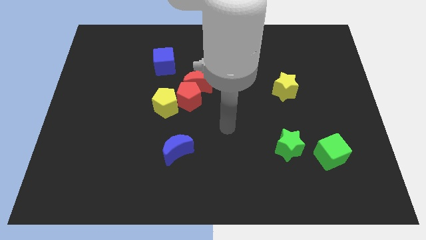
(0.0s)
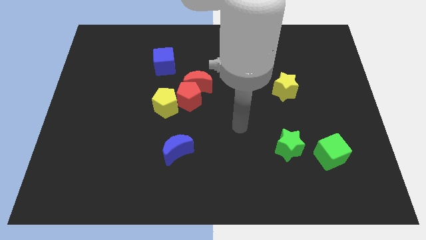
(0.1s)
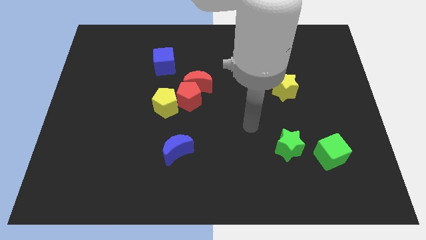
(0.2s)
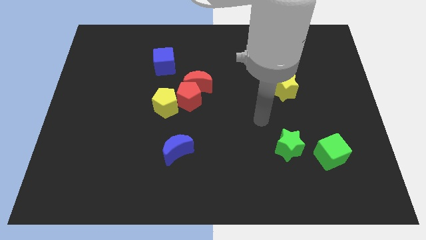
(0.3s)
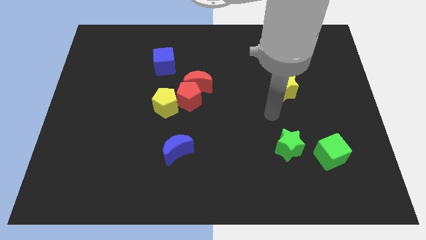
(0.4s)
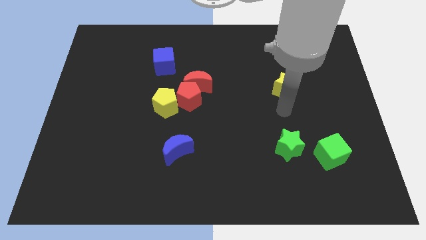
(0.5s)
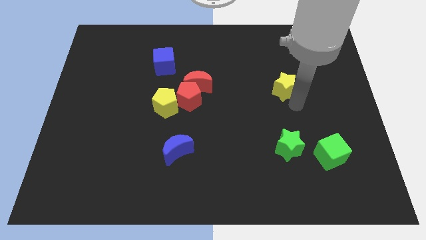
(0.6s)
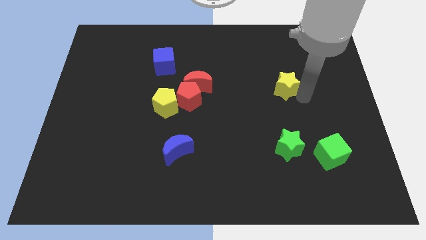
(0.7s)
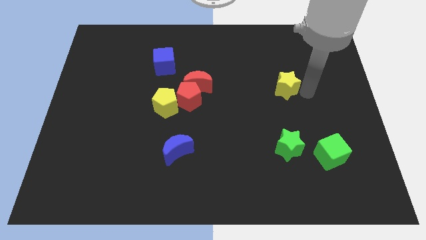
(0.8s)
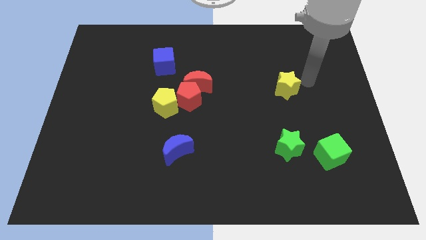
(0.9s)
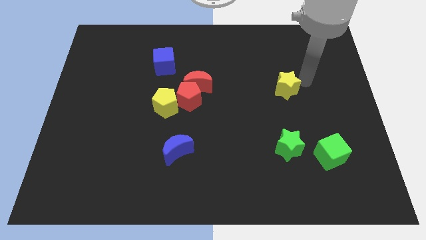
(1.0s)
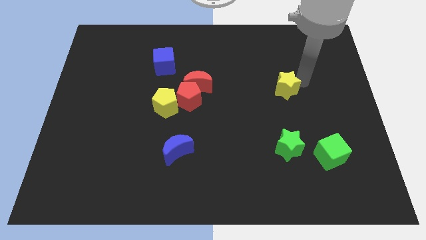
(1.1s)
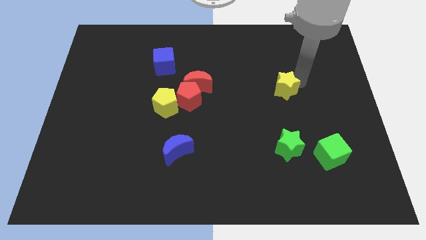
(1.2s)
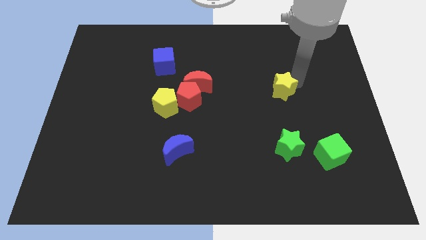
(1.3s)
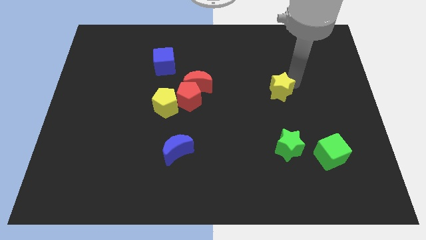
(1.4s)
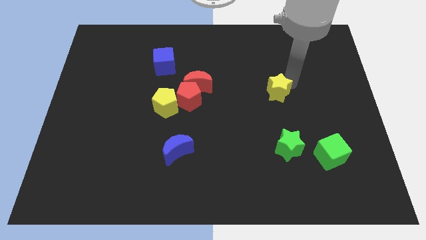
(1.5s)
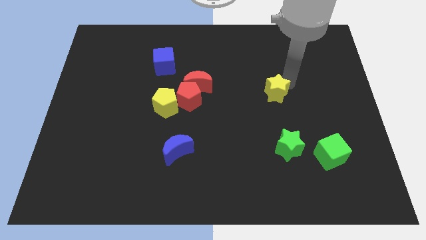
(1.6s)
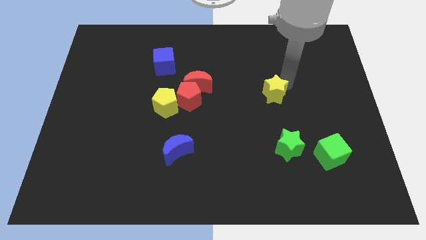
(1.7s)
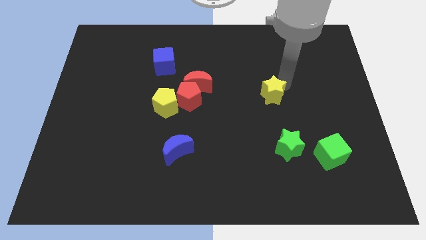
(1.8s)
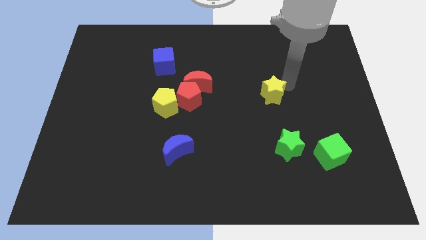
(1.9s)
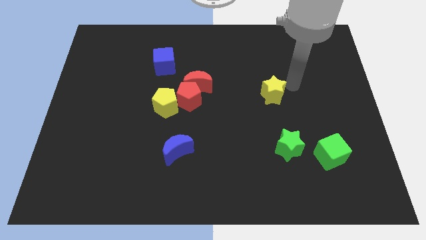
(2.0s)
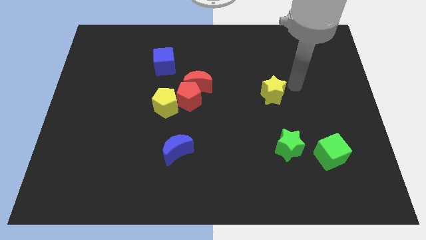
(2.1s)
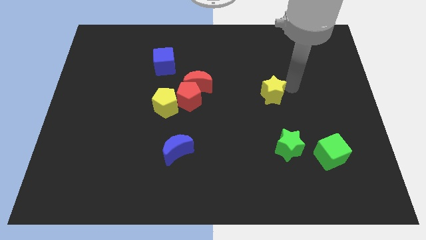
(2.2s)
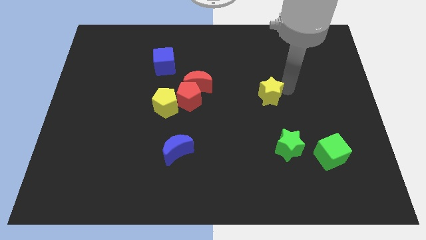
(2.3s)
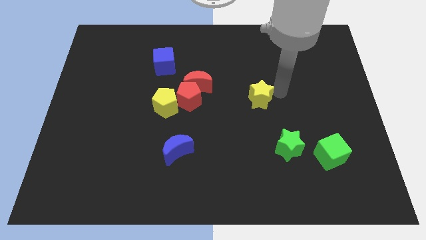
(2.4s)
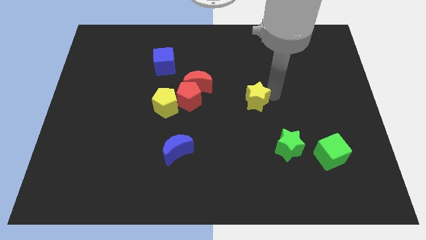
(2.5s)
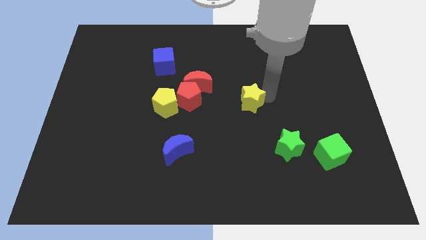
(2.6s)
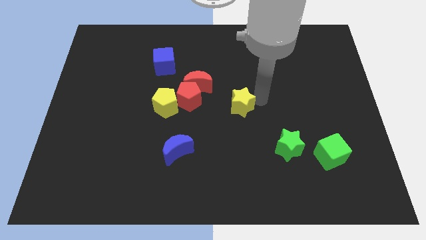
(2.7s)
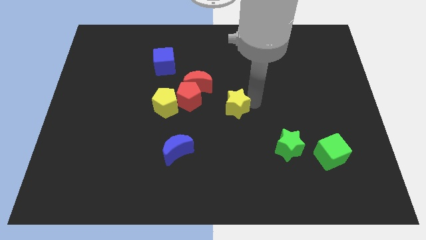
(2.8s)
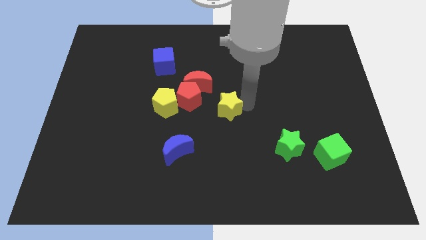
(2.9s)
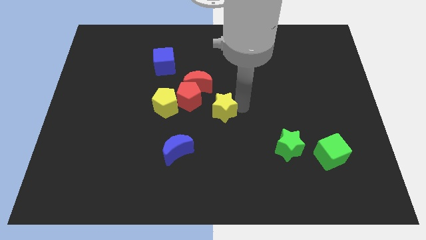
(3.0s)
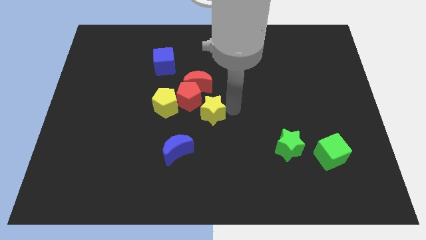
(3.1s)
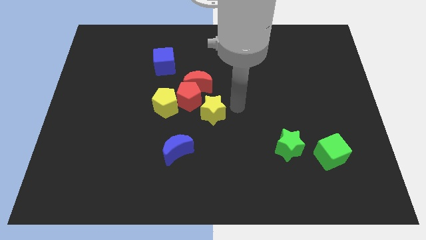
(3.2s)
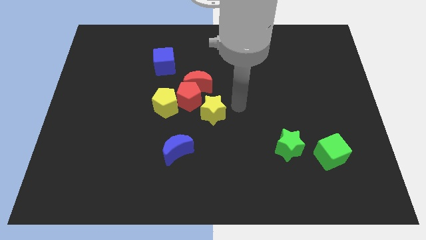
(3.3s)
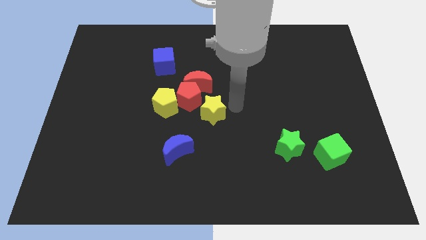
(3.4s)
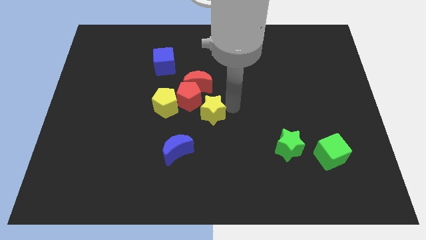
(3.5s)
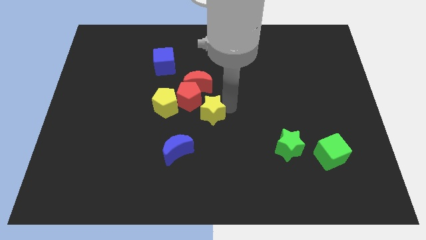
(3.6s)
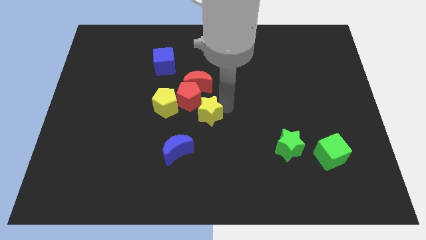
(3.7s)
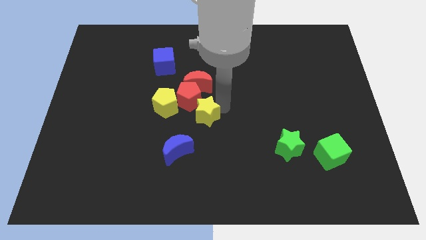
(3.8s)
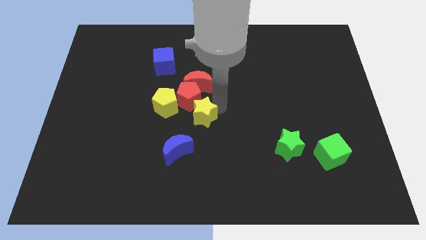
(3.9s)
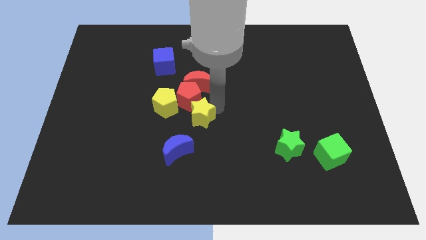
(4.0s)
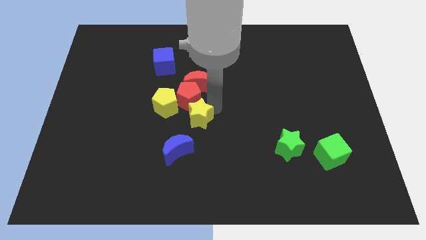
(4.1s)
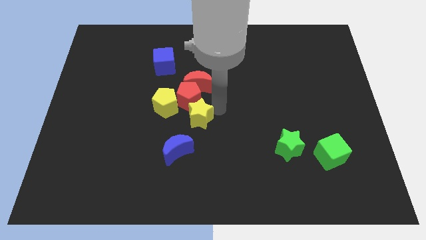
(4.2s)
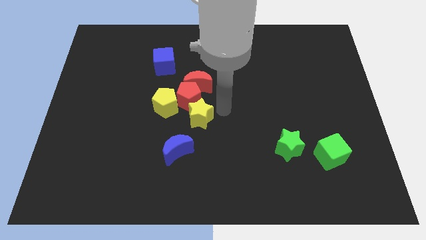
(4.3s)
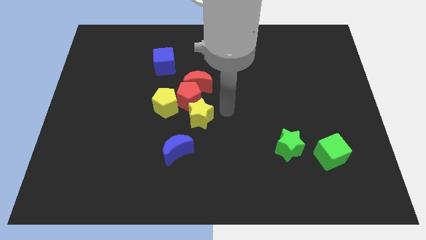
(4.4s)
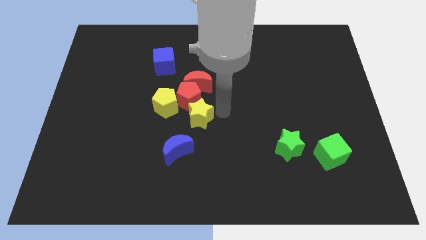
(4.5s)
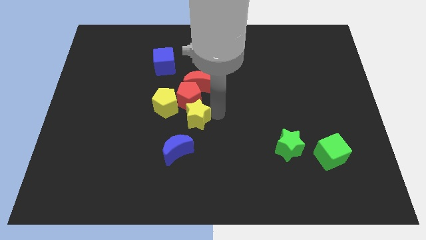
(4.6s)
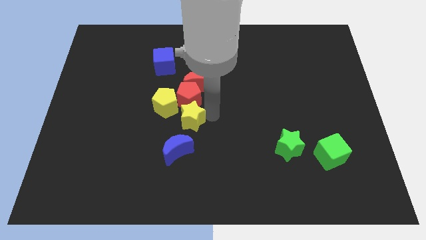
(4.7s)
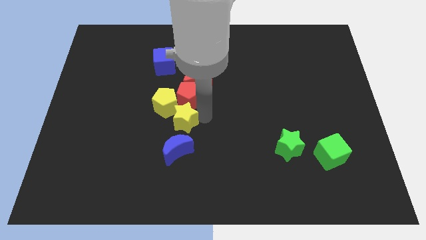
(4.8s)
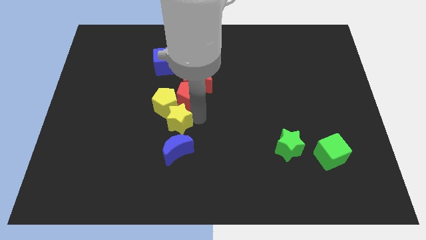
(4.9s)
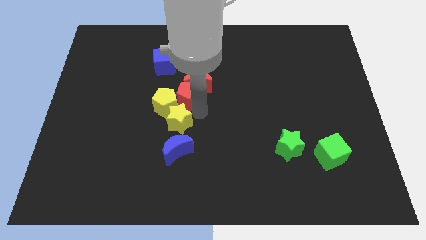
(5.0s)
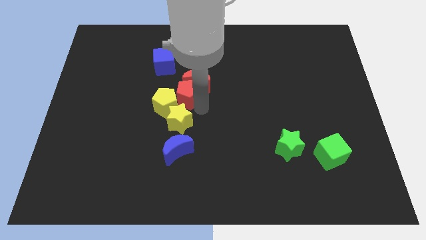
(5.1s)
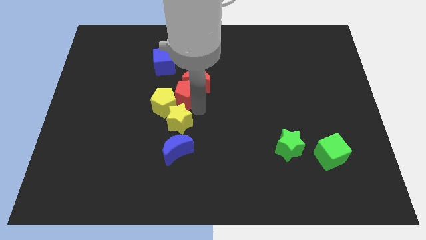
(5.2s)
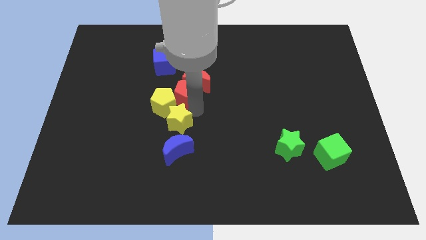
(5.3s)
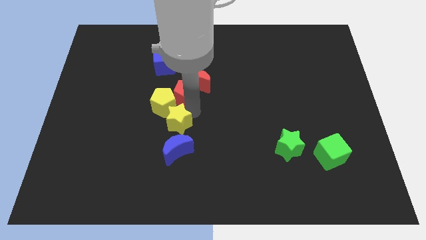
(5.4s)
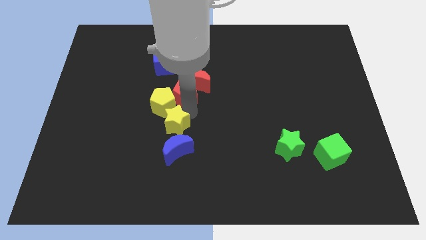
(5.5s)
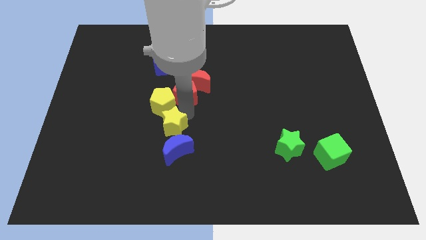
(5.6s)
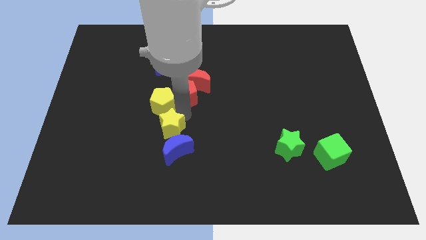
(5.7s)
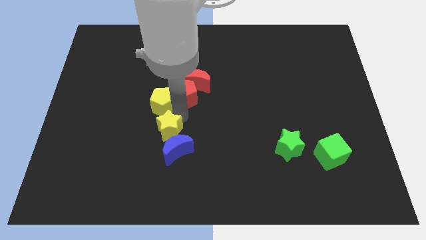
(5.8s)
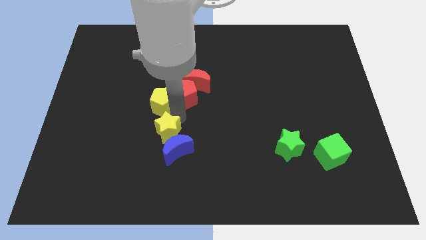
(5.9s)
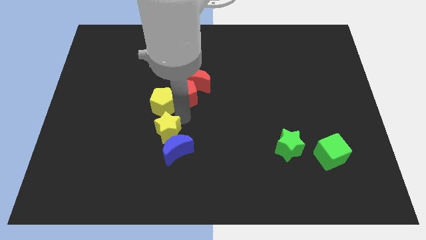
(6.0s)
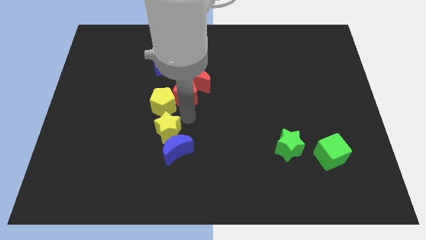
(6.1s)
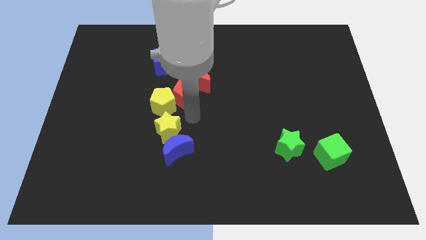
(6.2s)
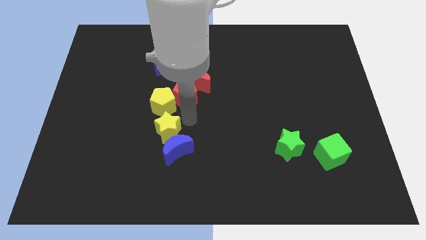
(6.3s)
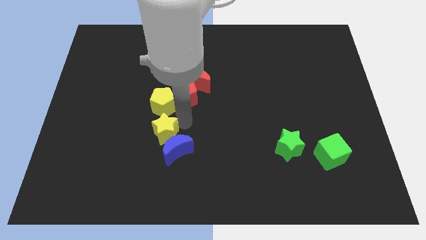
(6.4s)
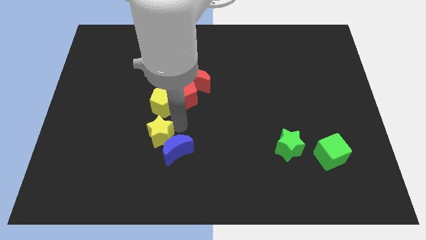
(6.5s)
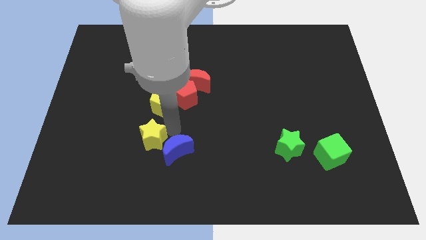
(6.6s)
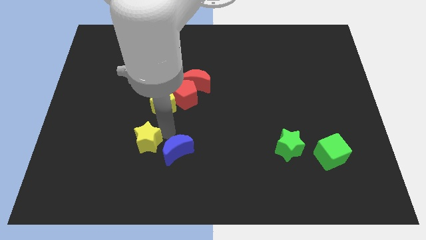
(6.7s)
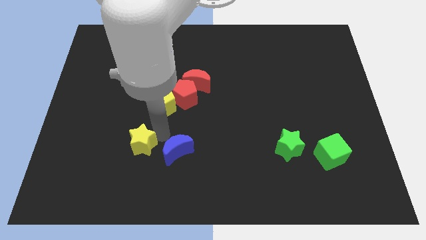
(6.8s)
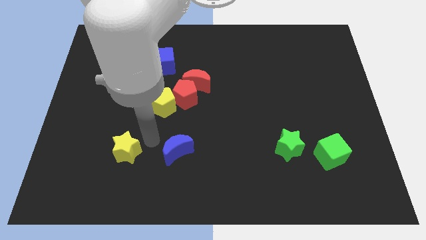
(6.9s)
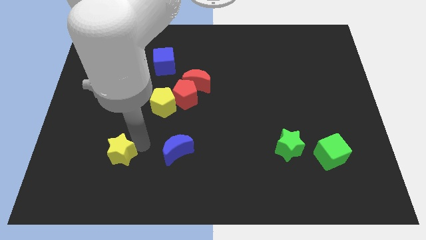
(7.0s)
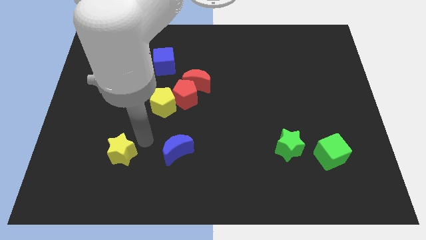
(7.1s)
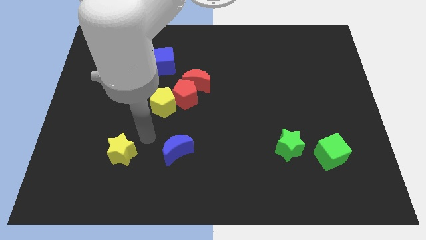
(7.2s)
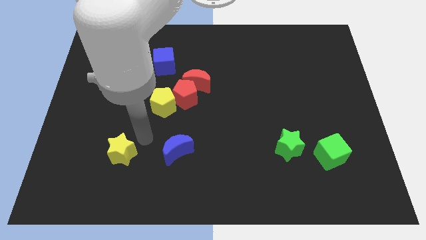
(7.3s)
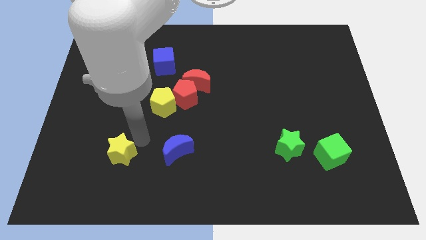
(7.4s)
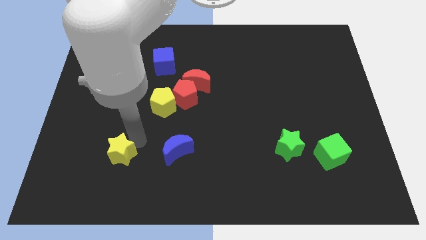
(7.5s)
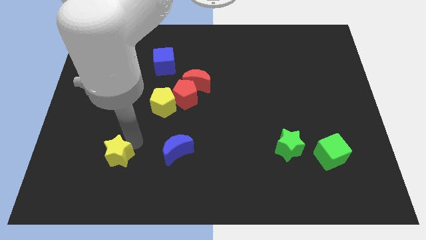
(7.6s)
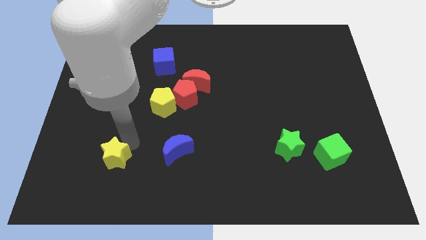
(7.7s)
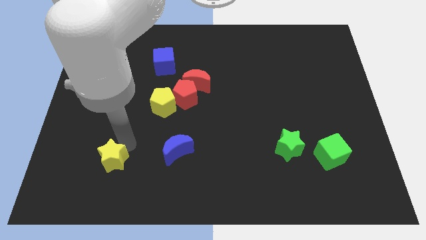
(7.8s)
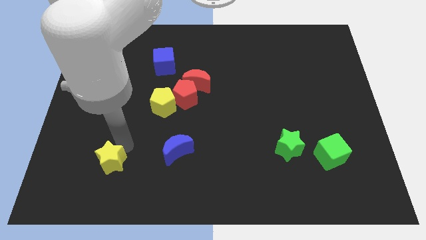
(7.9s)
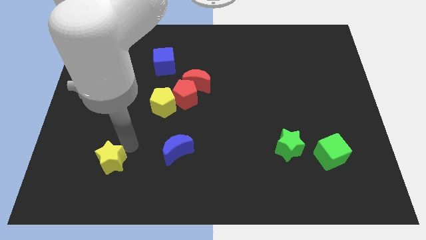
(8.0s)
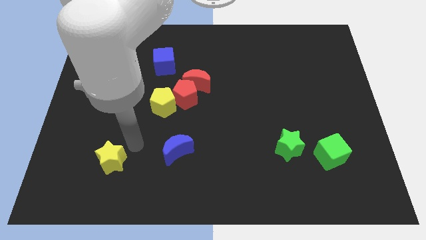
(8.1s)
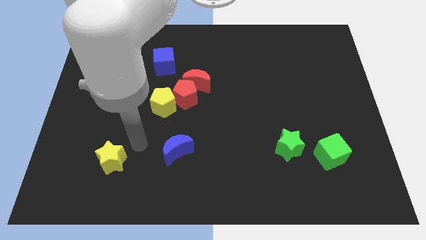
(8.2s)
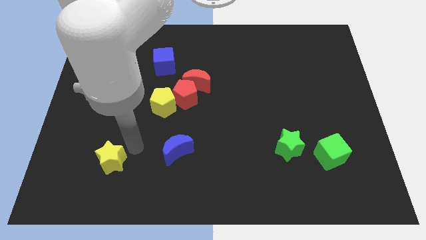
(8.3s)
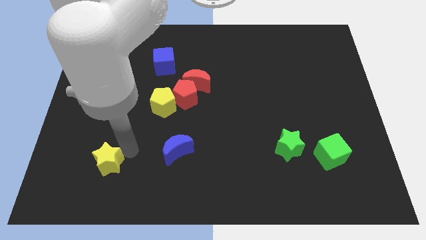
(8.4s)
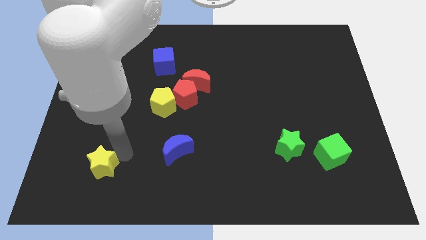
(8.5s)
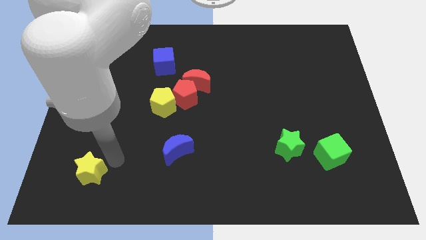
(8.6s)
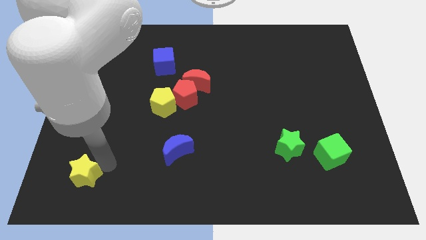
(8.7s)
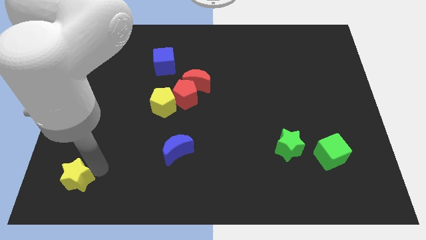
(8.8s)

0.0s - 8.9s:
put the yellow star to the bottom left corner
